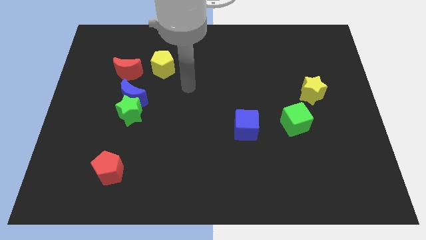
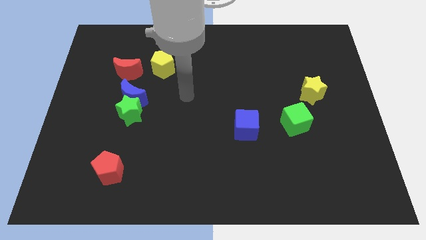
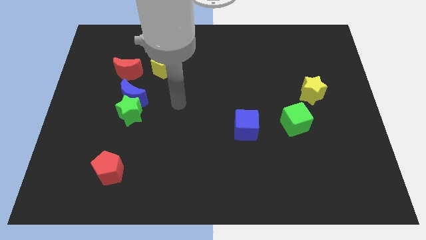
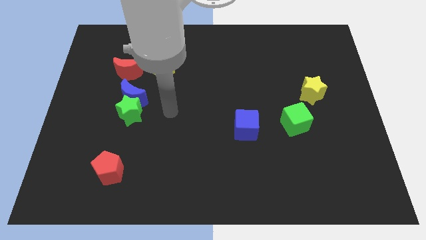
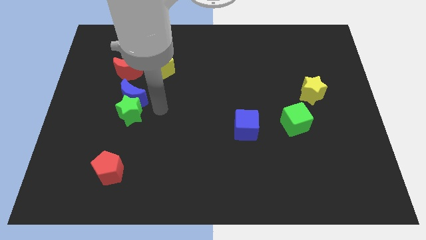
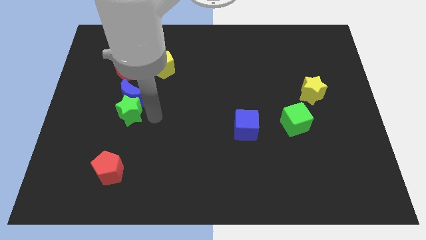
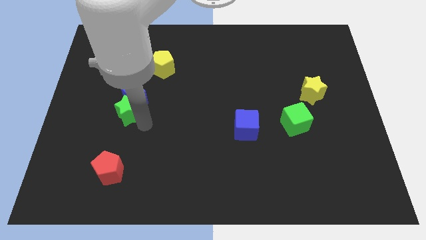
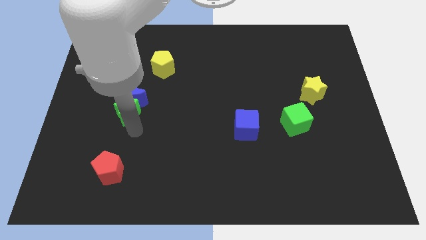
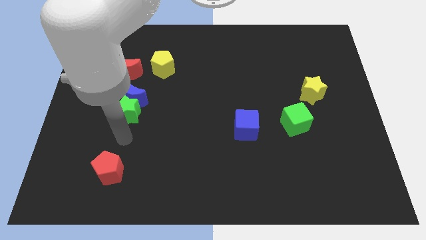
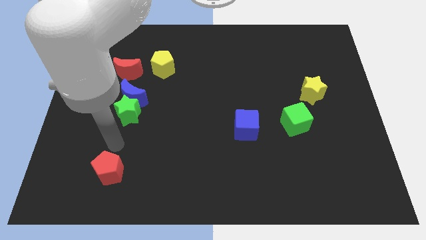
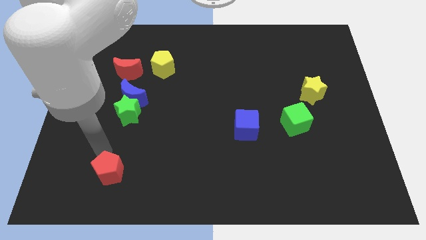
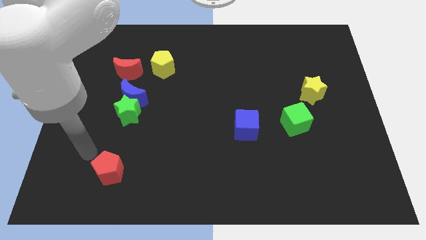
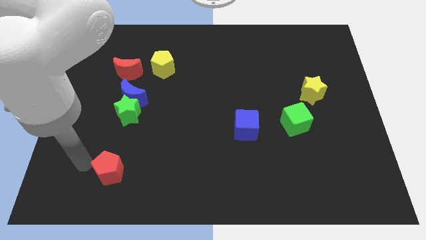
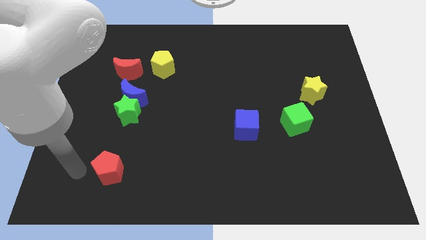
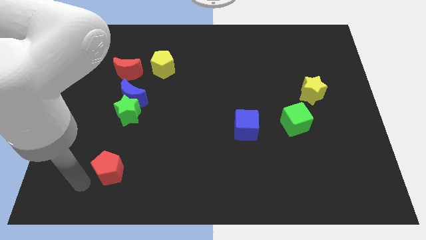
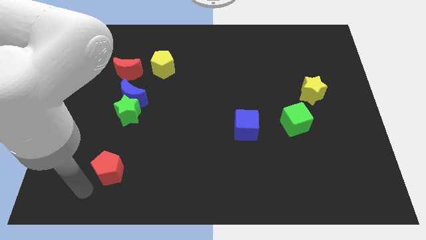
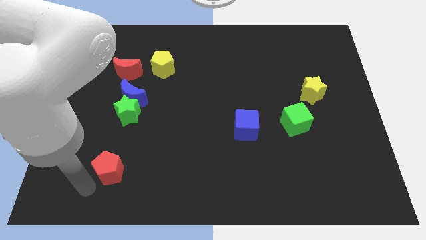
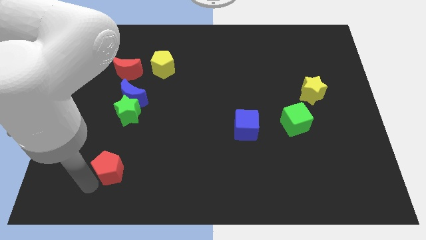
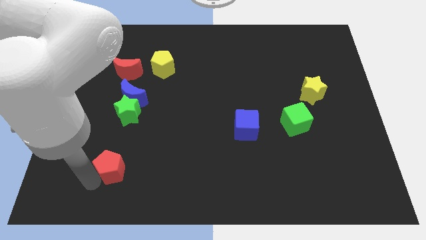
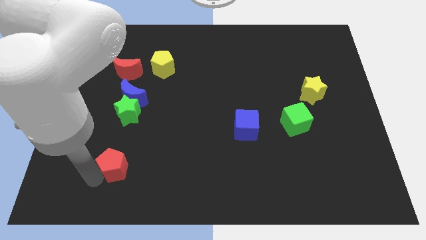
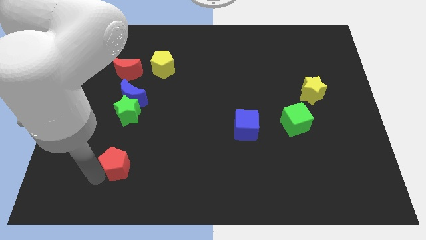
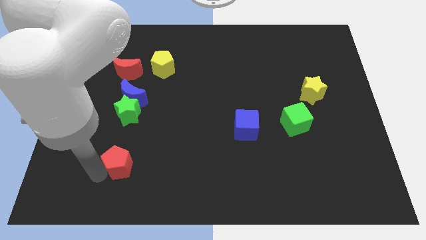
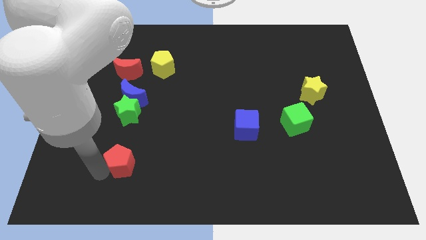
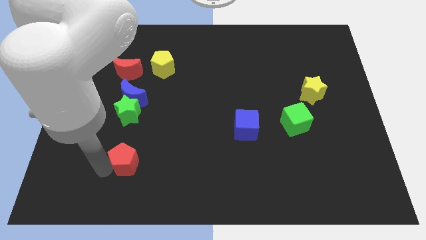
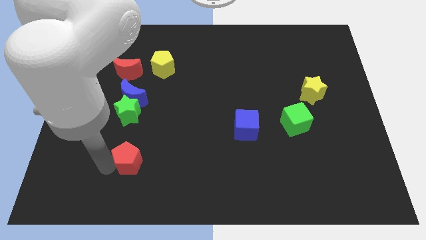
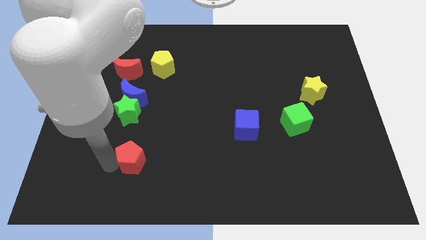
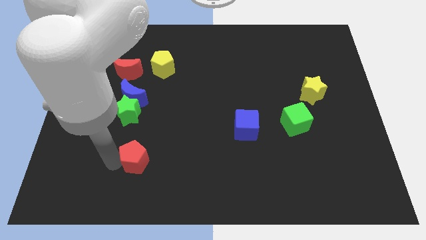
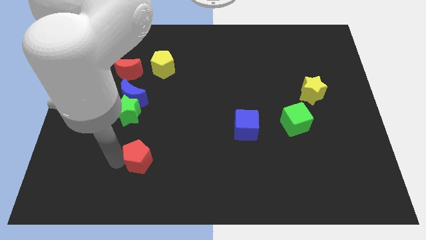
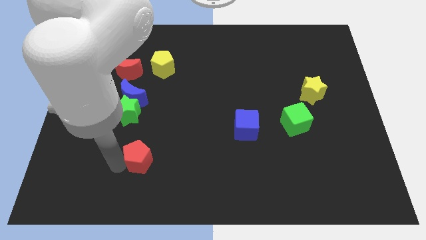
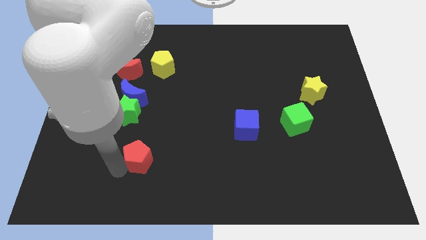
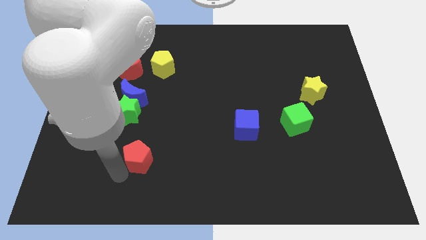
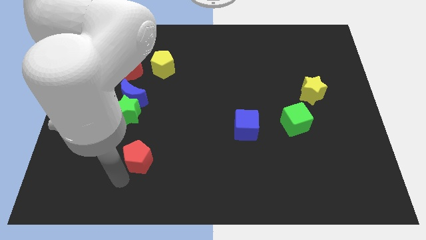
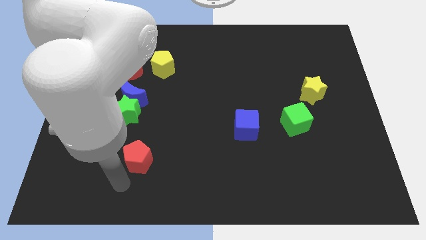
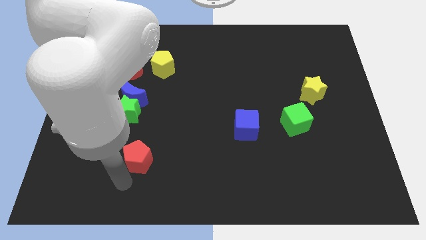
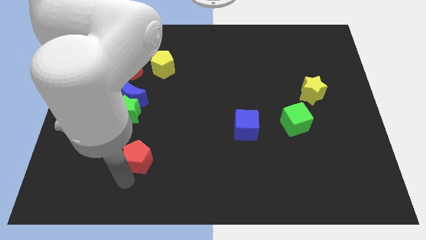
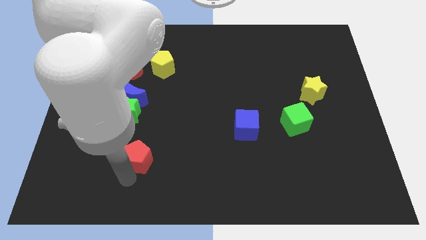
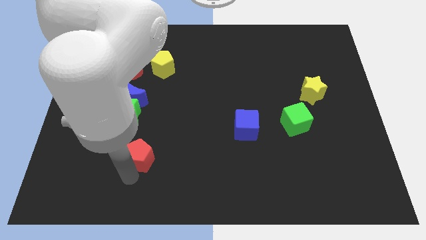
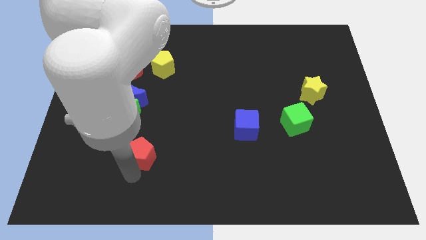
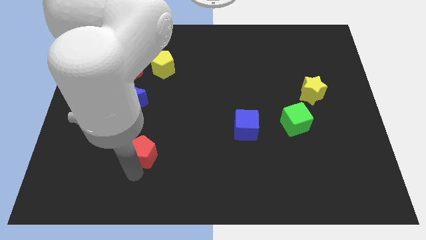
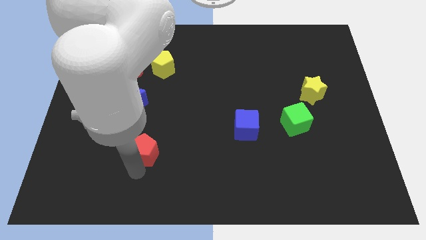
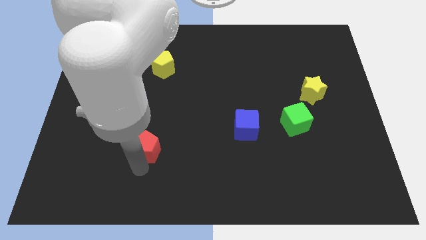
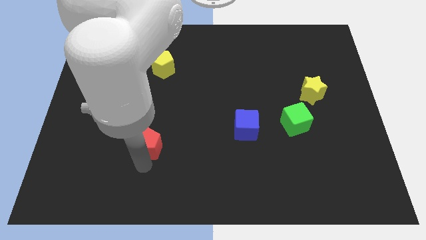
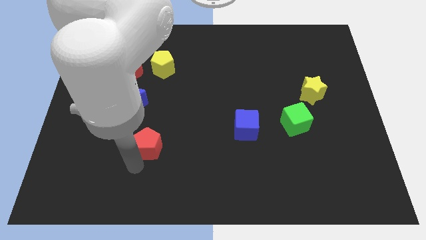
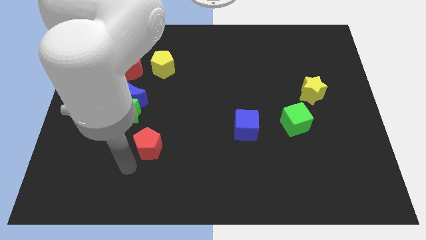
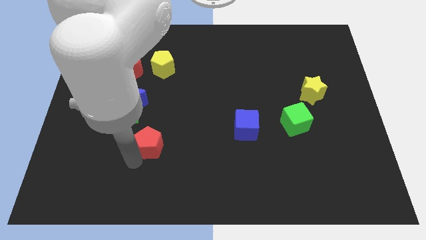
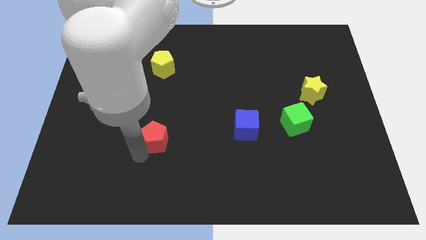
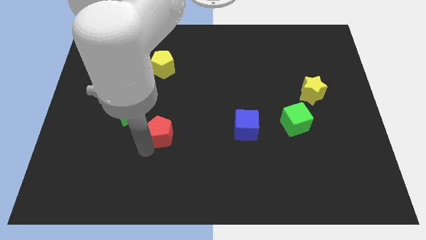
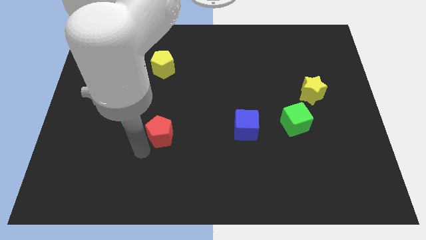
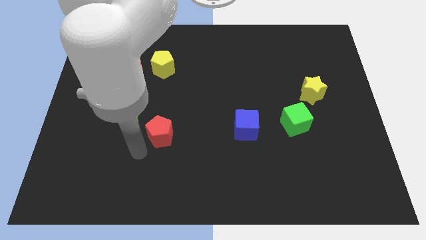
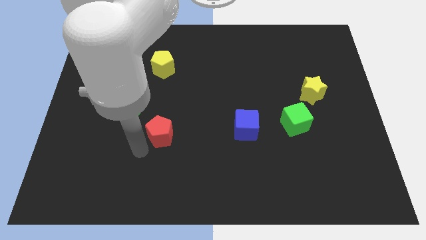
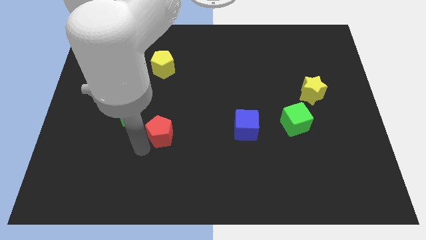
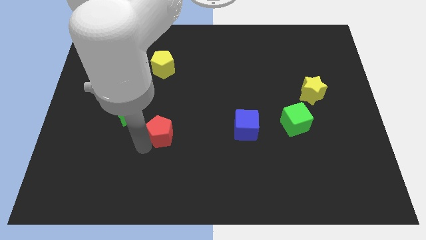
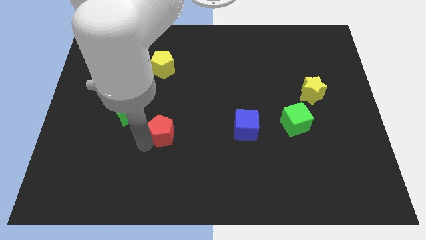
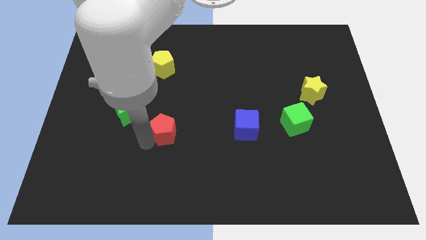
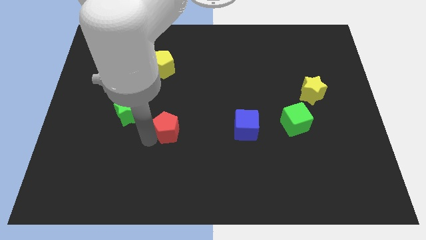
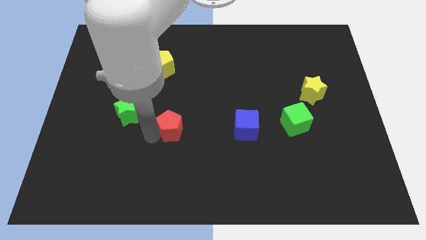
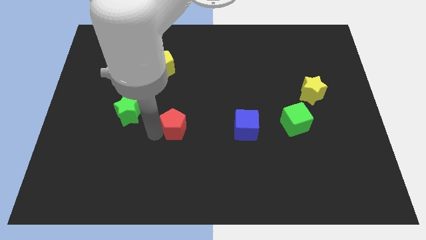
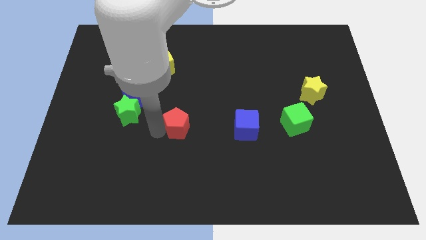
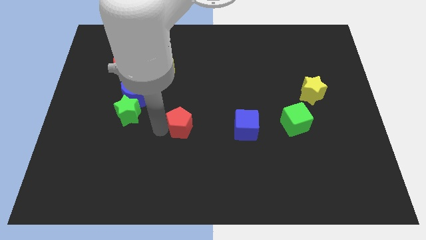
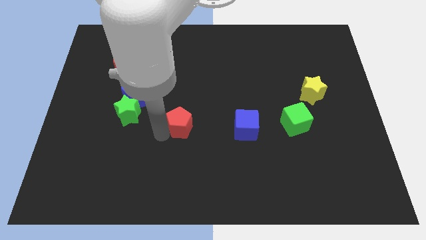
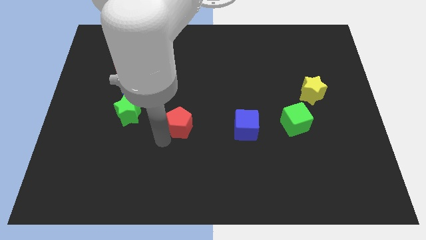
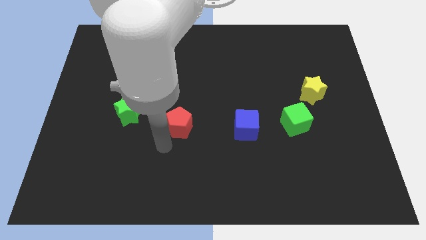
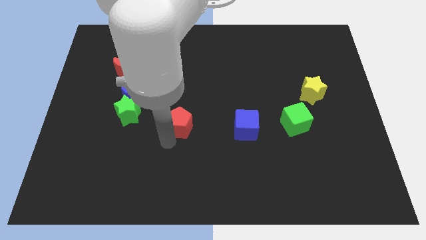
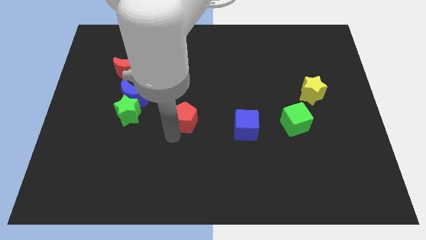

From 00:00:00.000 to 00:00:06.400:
move the red pentagon up and to the right diagonally

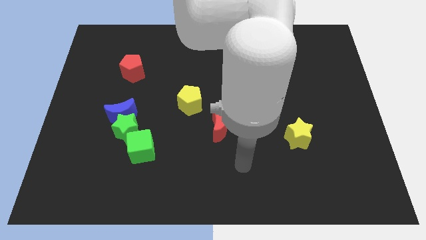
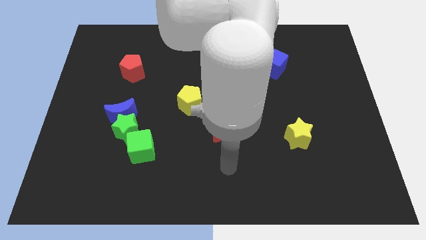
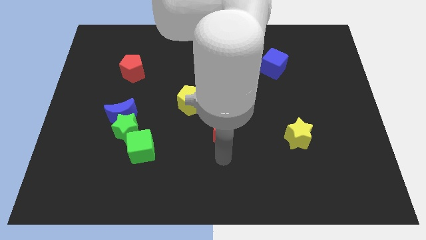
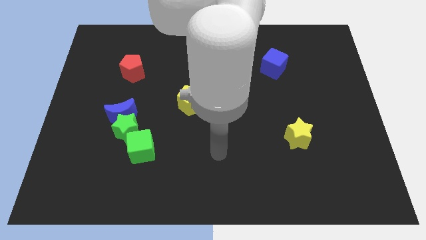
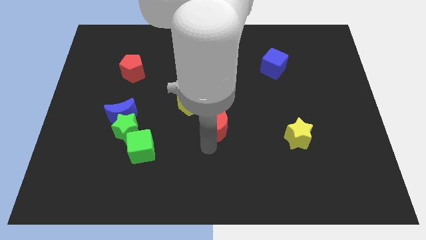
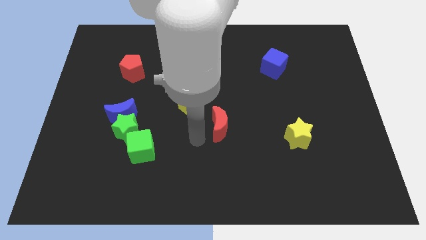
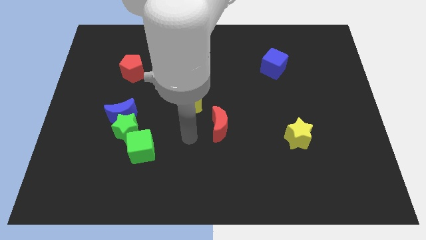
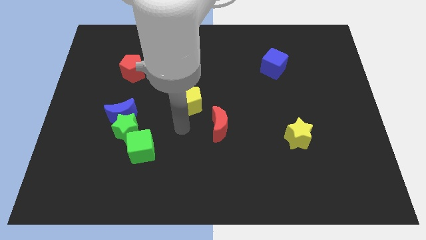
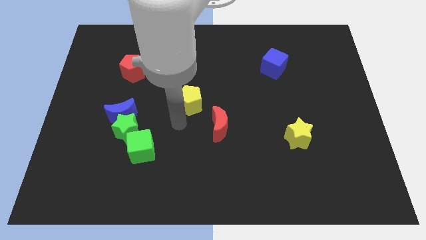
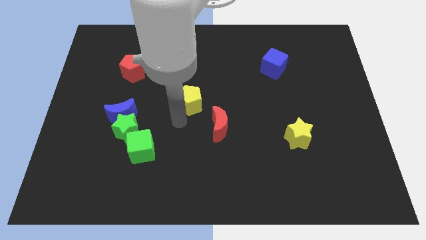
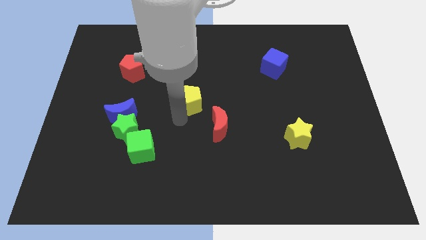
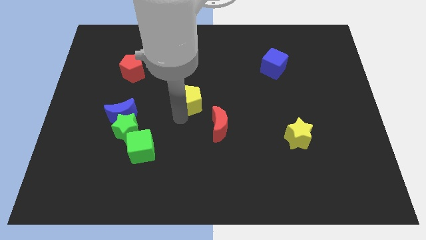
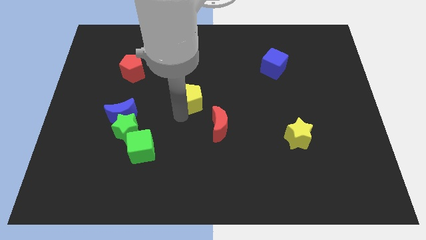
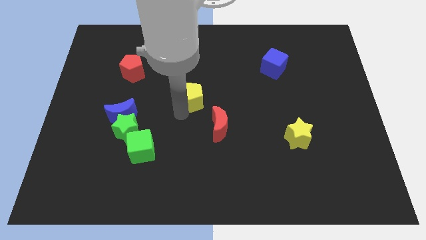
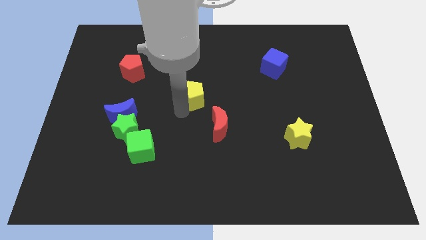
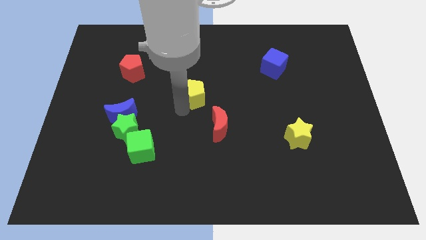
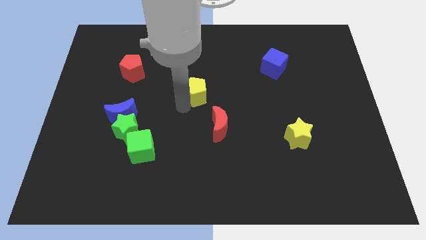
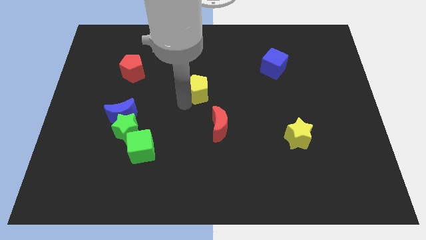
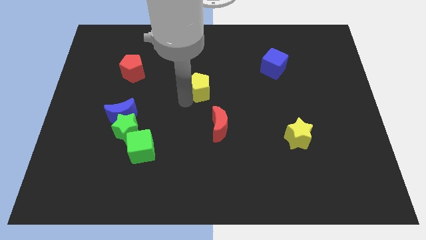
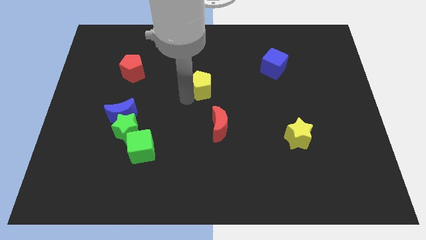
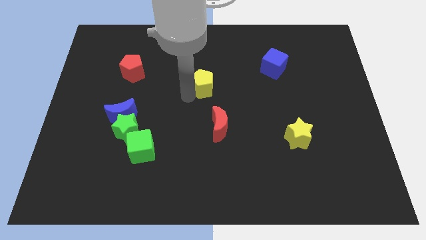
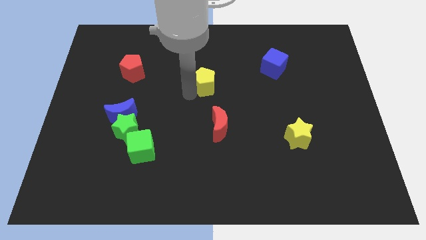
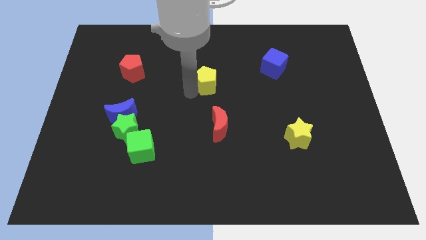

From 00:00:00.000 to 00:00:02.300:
move the yellow pentagon slightly upwards and to the right diagonally
